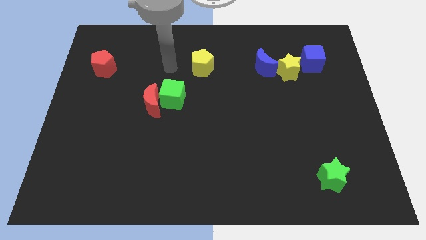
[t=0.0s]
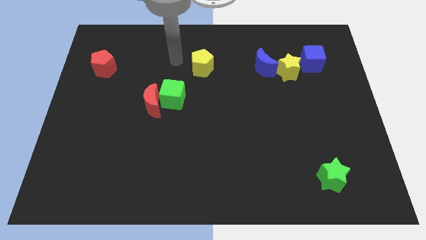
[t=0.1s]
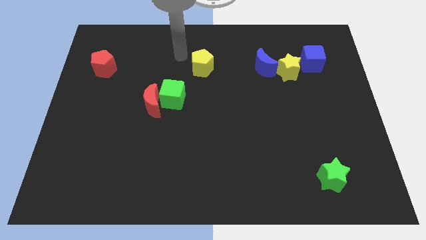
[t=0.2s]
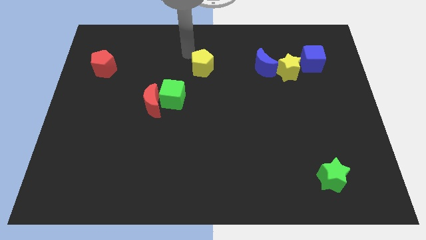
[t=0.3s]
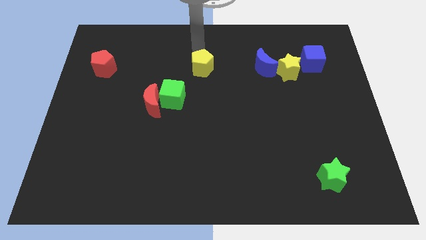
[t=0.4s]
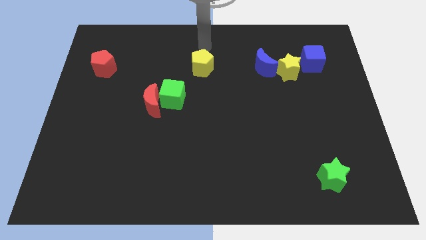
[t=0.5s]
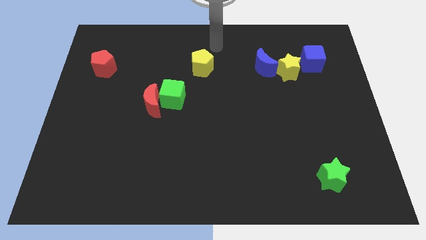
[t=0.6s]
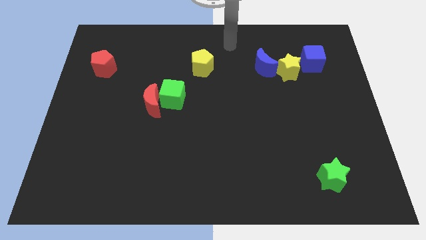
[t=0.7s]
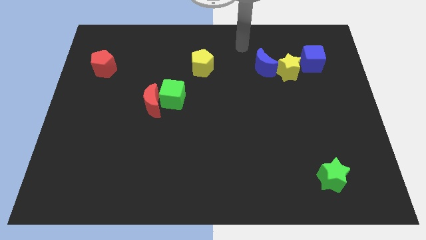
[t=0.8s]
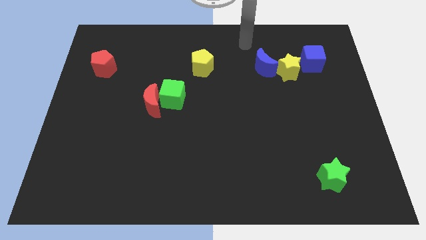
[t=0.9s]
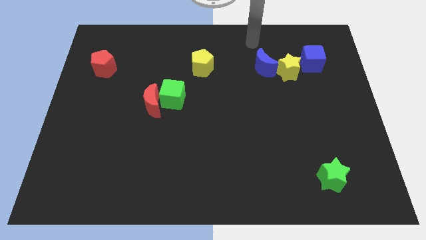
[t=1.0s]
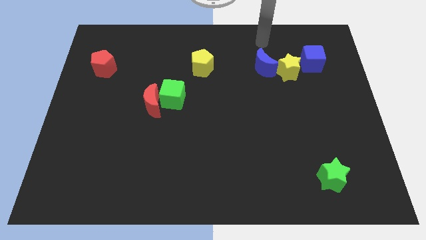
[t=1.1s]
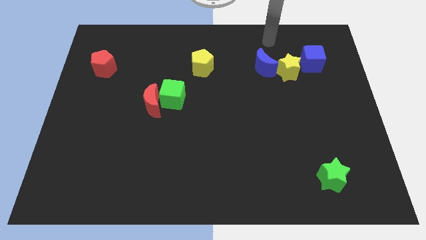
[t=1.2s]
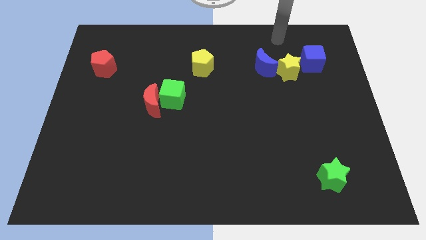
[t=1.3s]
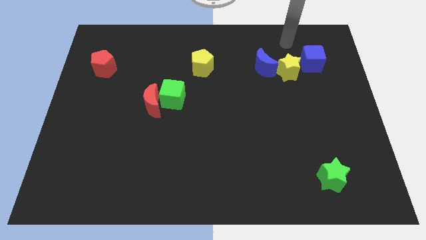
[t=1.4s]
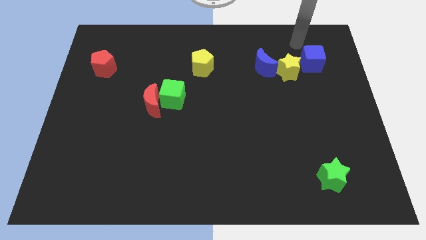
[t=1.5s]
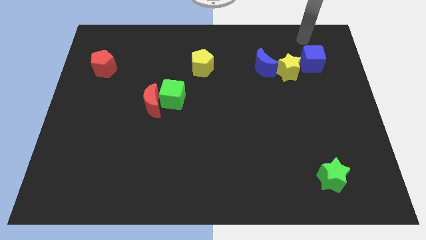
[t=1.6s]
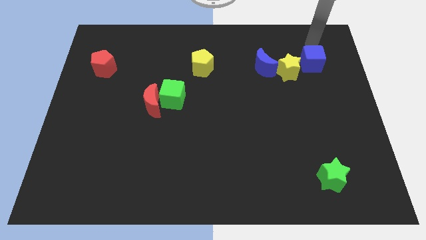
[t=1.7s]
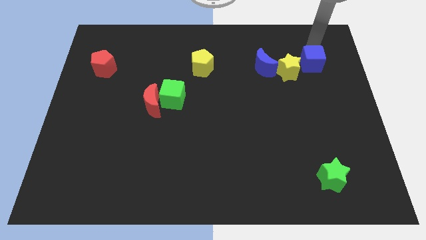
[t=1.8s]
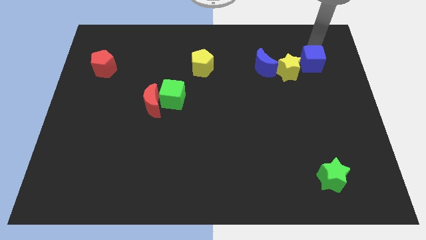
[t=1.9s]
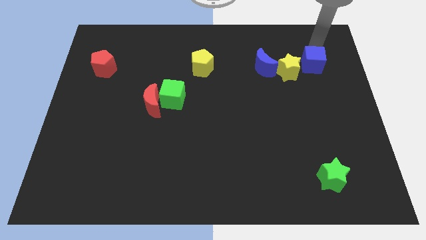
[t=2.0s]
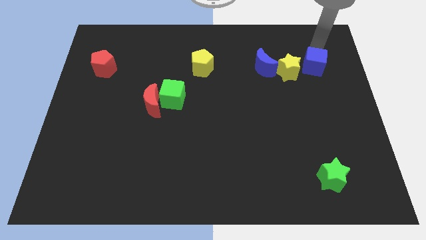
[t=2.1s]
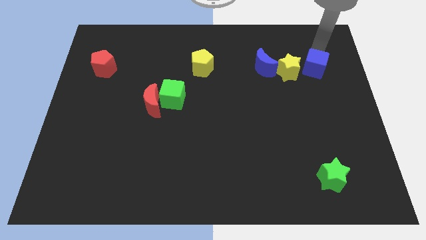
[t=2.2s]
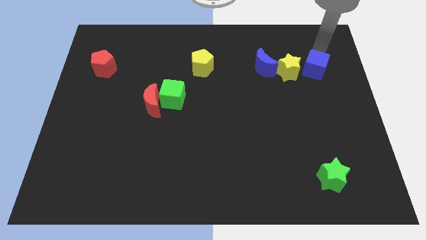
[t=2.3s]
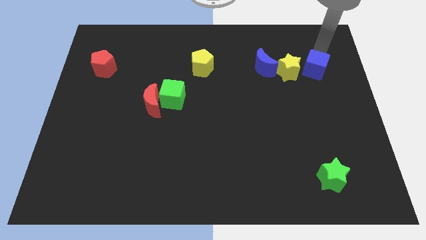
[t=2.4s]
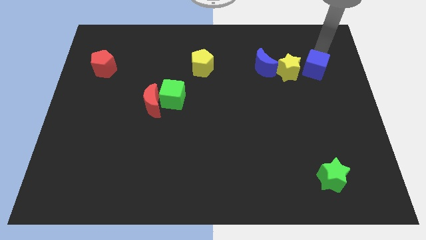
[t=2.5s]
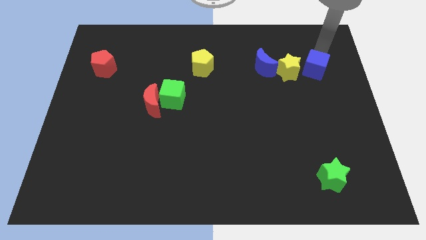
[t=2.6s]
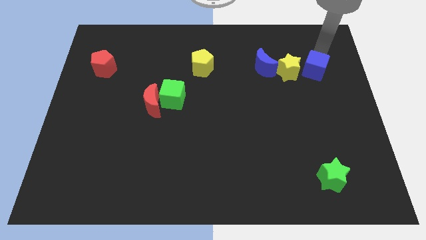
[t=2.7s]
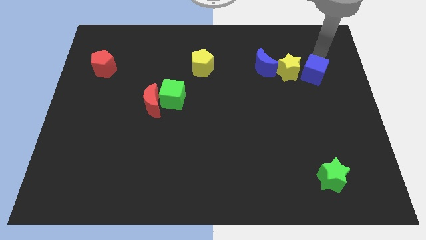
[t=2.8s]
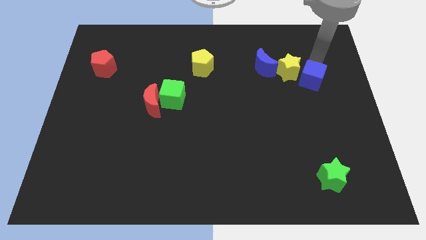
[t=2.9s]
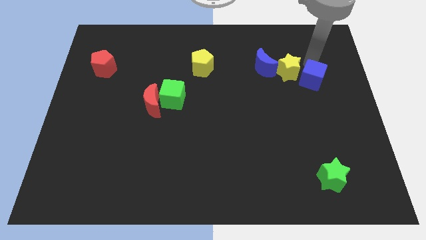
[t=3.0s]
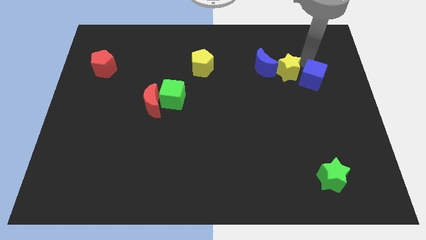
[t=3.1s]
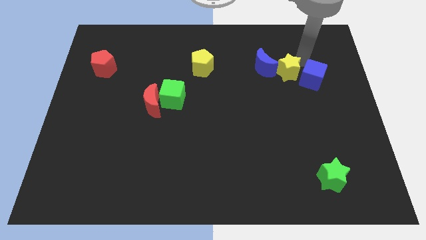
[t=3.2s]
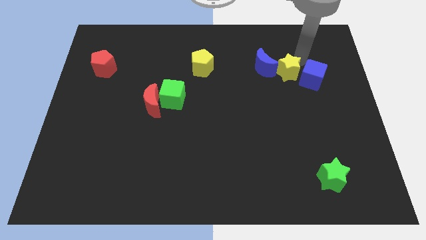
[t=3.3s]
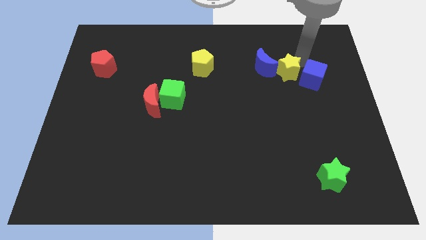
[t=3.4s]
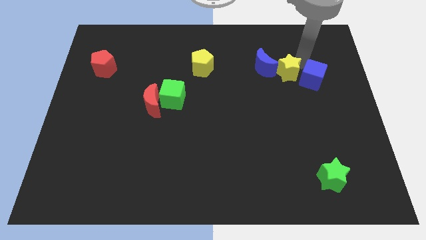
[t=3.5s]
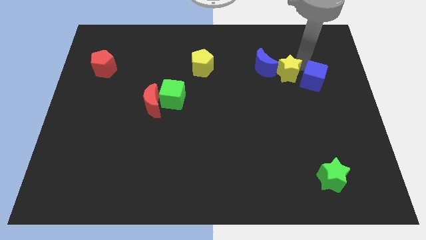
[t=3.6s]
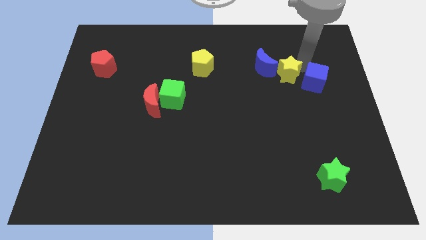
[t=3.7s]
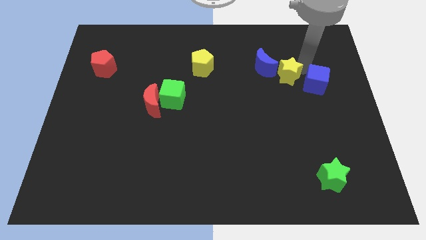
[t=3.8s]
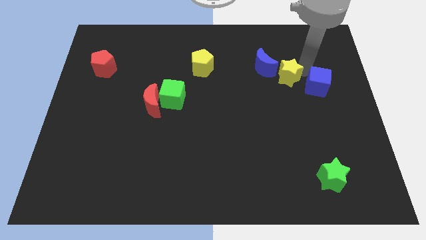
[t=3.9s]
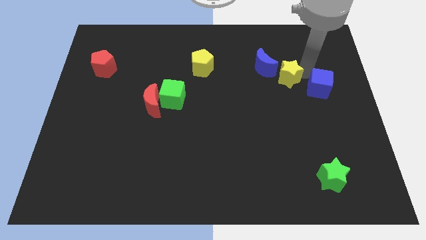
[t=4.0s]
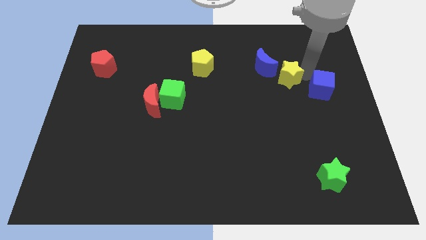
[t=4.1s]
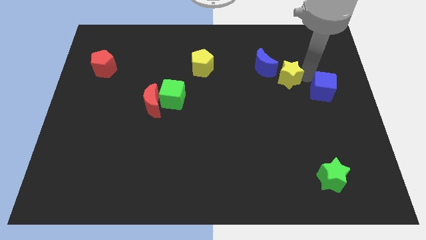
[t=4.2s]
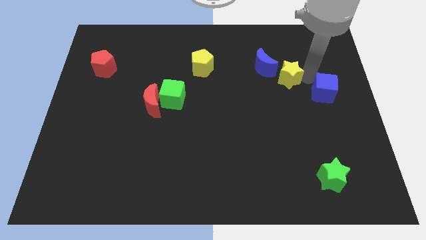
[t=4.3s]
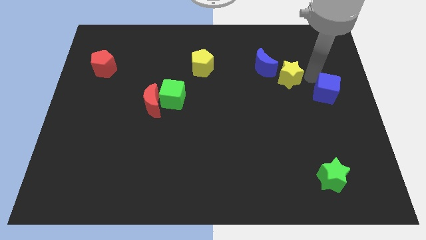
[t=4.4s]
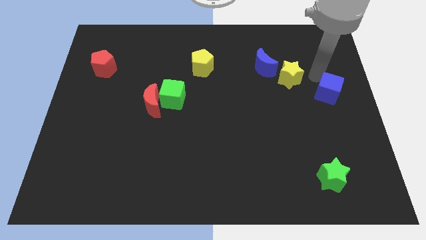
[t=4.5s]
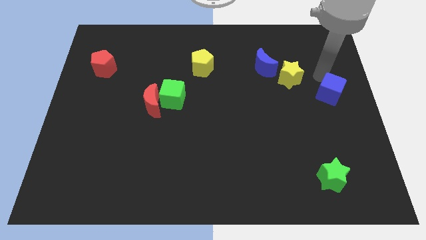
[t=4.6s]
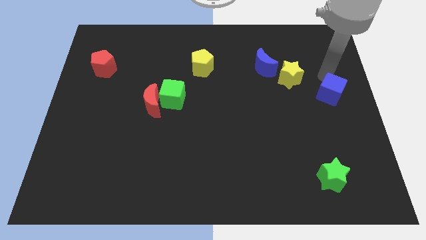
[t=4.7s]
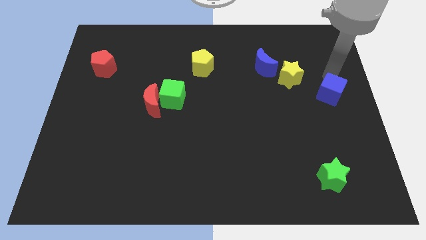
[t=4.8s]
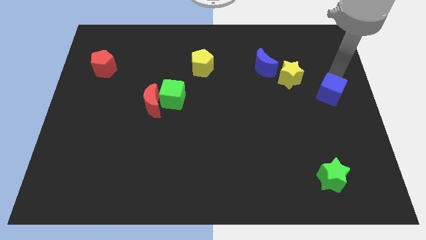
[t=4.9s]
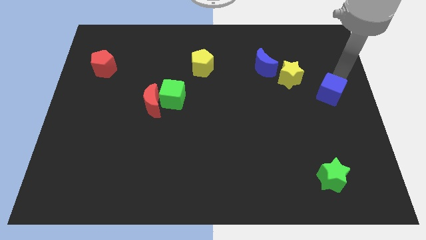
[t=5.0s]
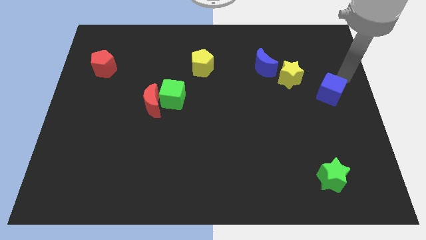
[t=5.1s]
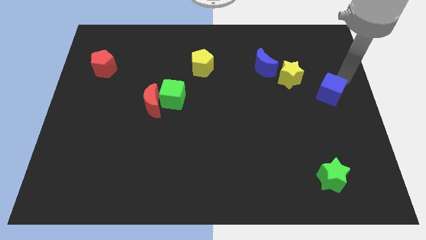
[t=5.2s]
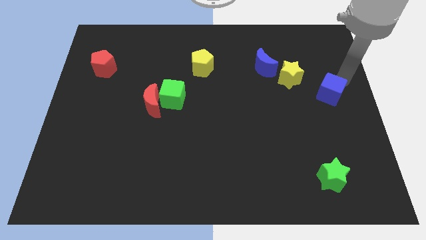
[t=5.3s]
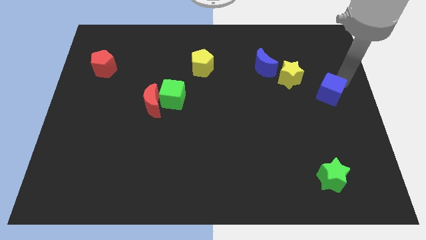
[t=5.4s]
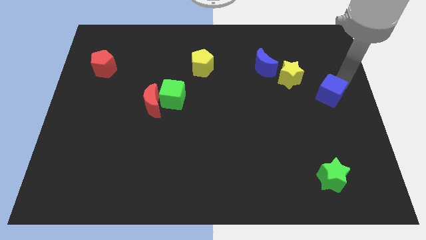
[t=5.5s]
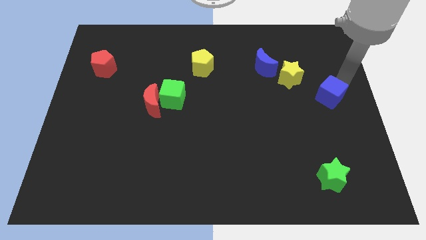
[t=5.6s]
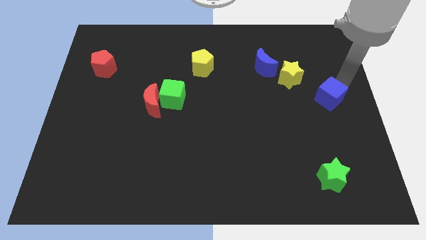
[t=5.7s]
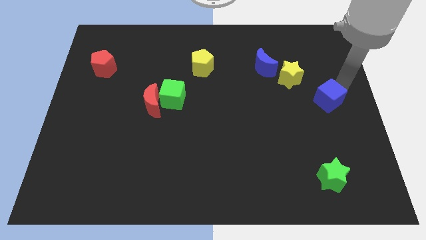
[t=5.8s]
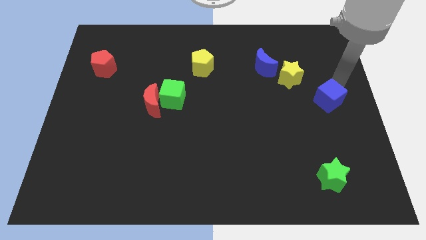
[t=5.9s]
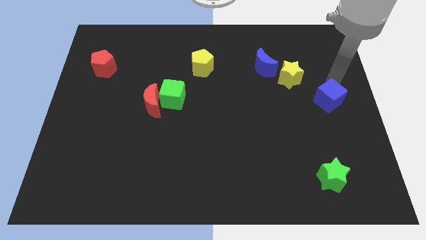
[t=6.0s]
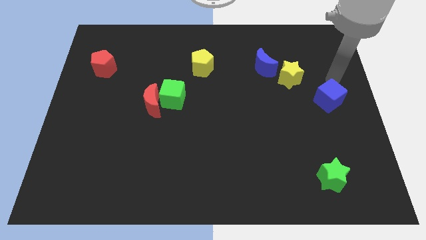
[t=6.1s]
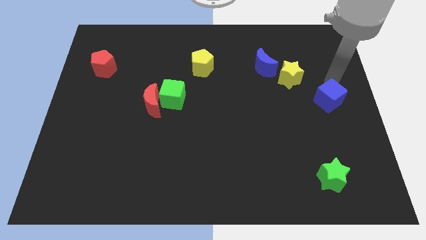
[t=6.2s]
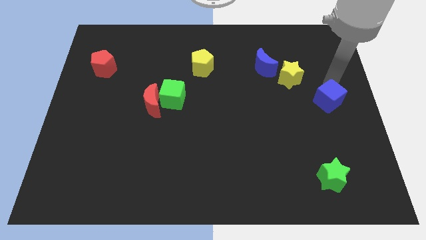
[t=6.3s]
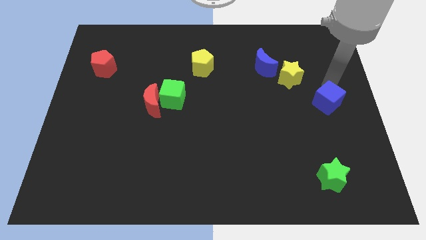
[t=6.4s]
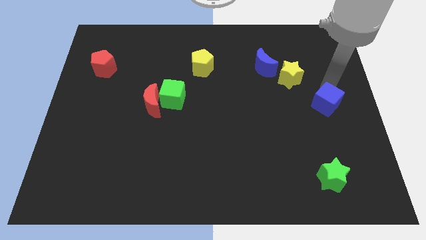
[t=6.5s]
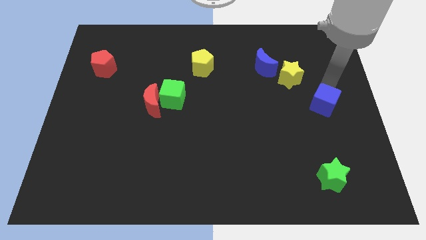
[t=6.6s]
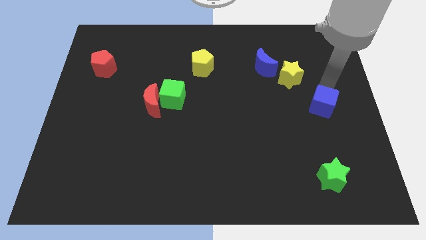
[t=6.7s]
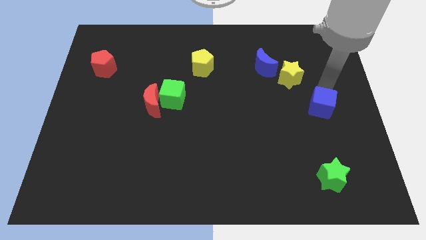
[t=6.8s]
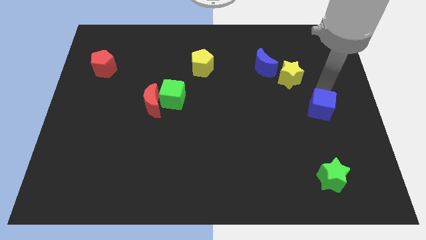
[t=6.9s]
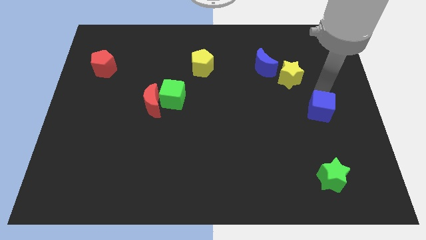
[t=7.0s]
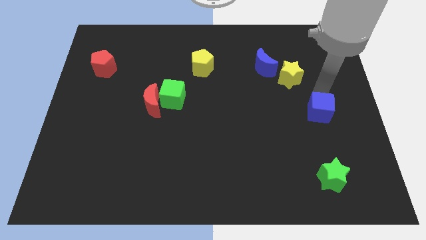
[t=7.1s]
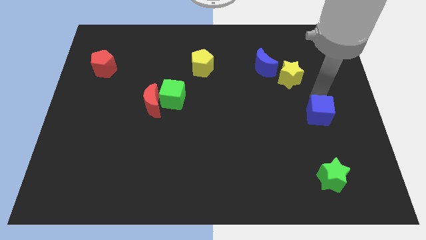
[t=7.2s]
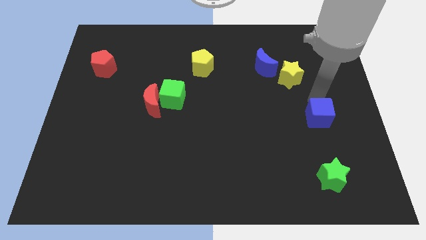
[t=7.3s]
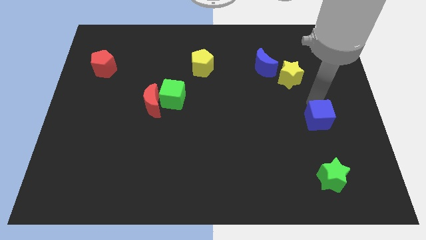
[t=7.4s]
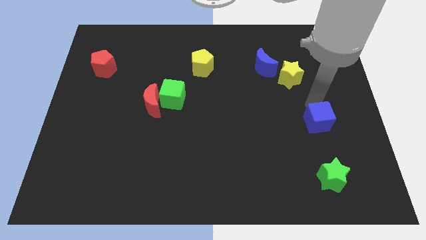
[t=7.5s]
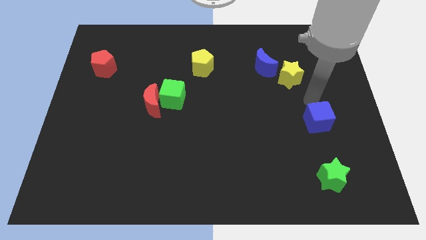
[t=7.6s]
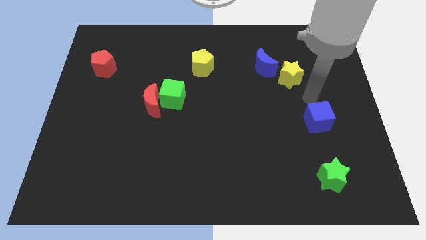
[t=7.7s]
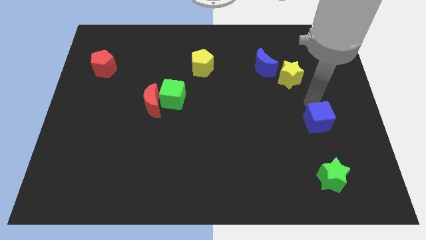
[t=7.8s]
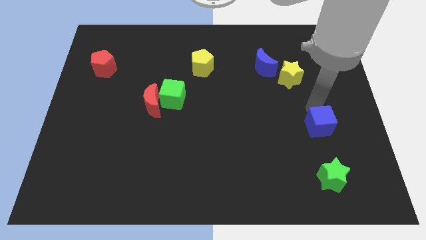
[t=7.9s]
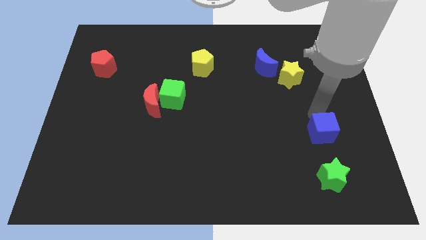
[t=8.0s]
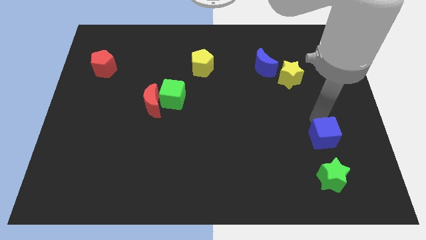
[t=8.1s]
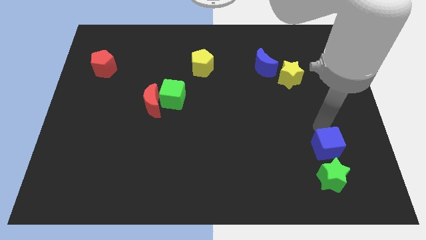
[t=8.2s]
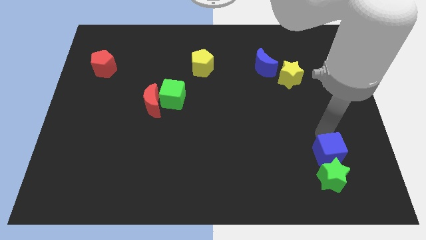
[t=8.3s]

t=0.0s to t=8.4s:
move the blue cube close to the green star
